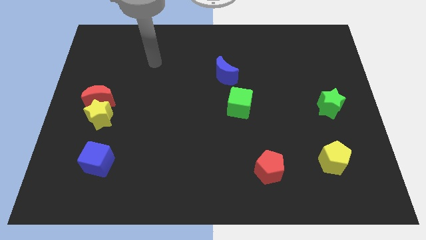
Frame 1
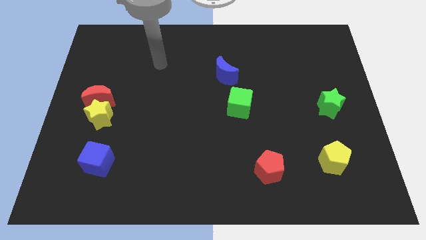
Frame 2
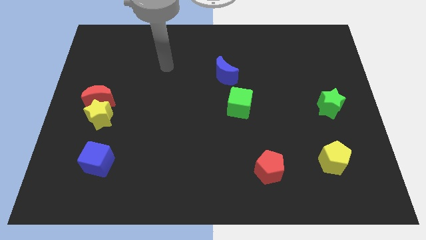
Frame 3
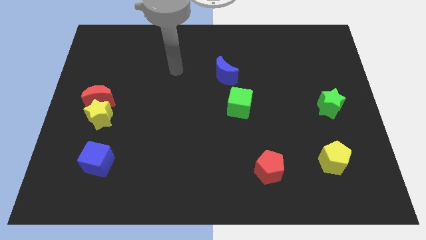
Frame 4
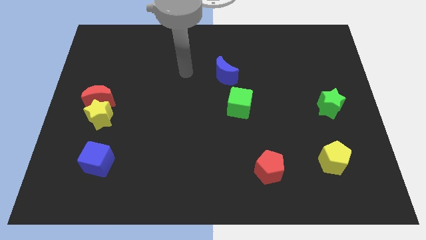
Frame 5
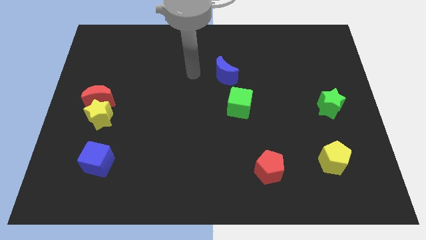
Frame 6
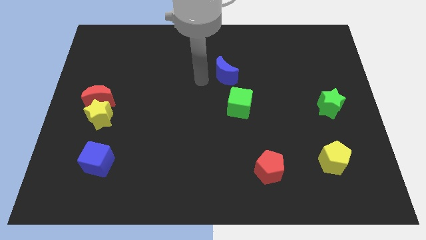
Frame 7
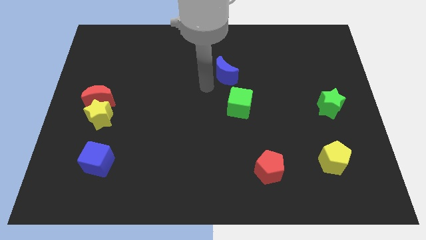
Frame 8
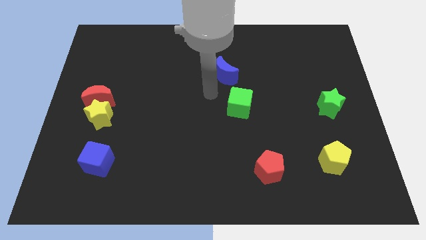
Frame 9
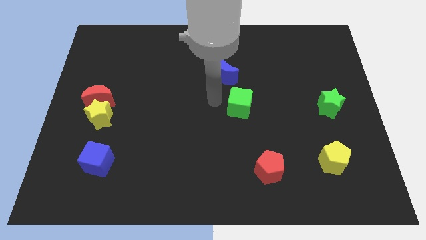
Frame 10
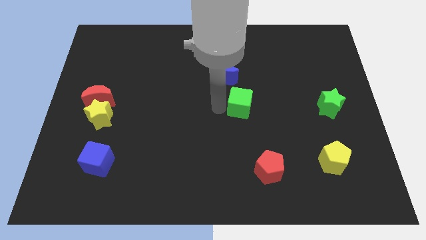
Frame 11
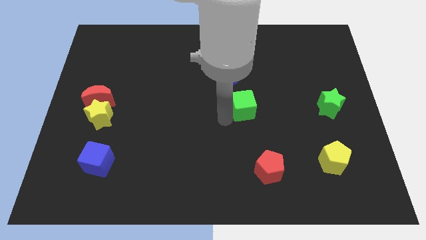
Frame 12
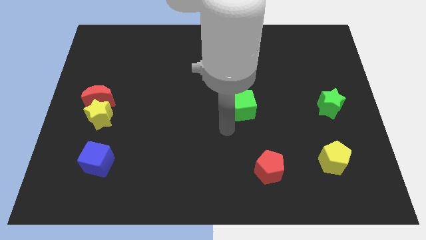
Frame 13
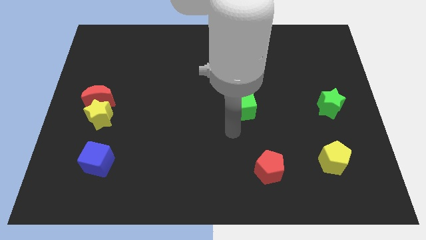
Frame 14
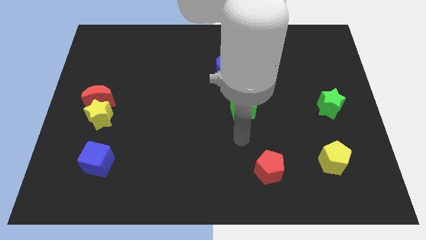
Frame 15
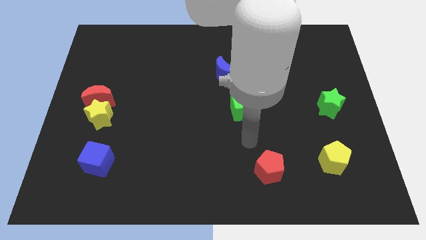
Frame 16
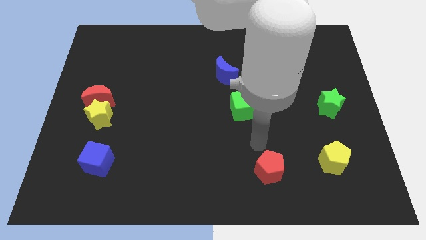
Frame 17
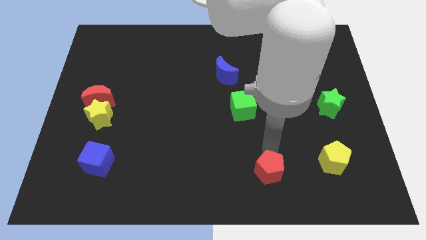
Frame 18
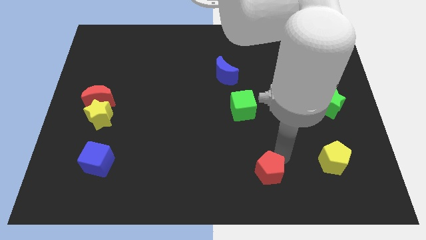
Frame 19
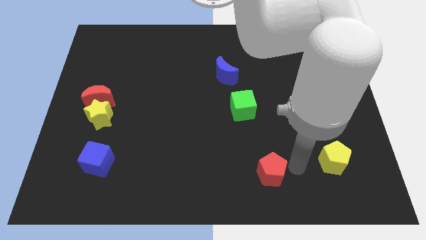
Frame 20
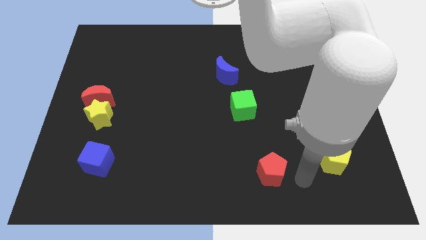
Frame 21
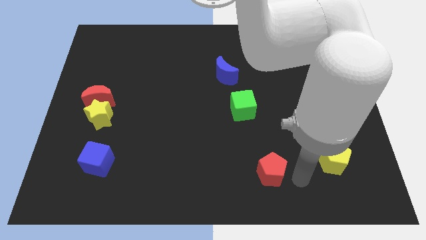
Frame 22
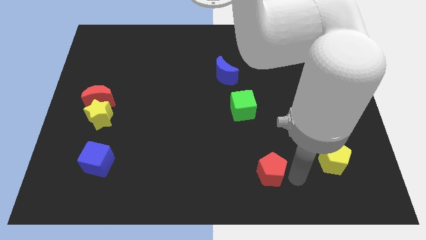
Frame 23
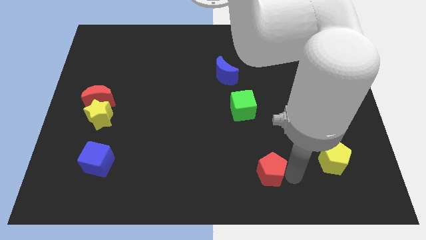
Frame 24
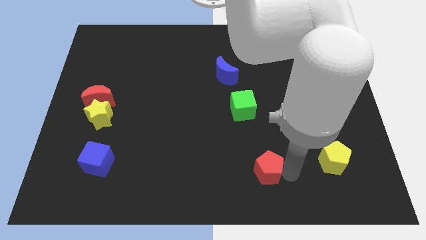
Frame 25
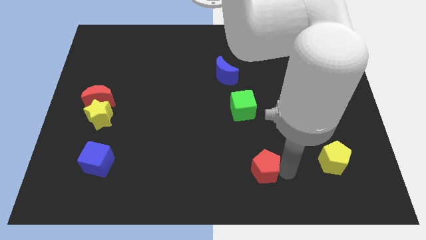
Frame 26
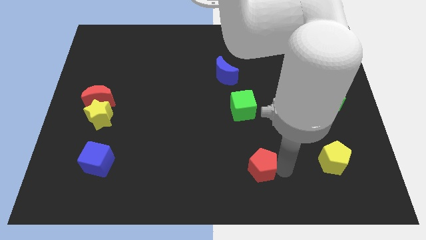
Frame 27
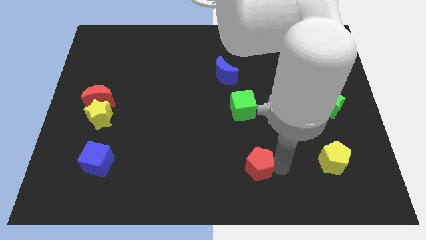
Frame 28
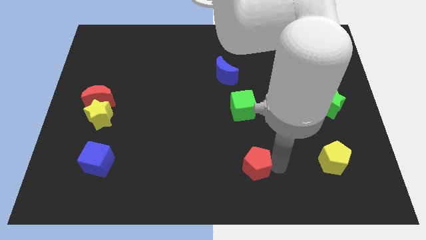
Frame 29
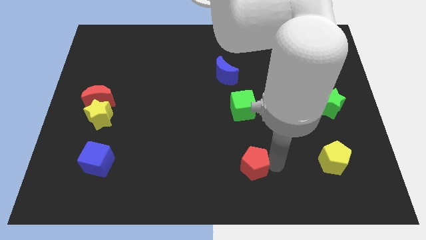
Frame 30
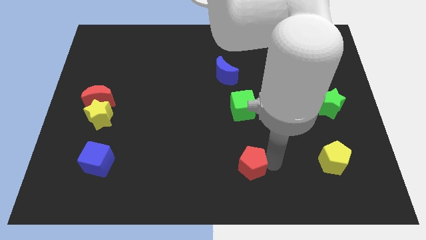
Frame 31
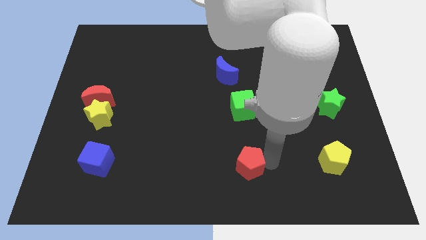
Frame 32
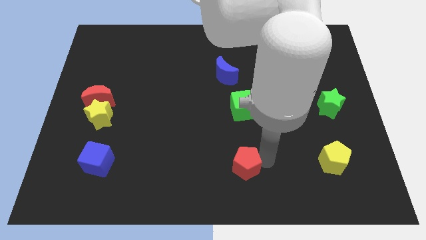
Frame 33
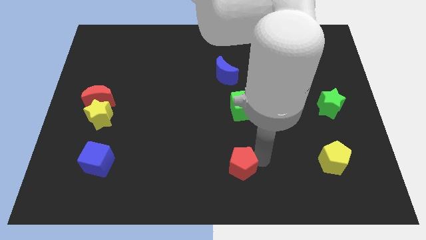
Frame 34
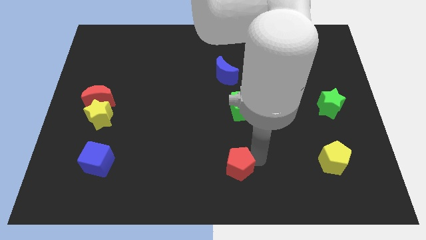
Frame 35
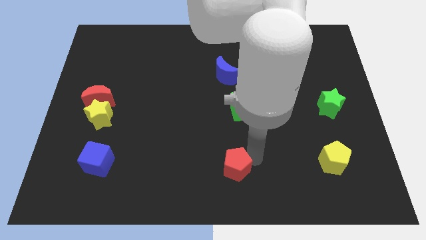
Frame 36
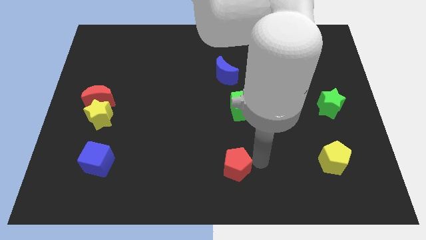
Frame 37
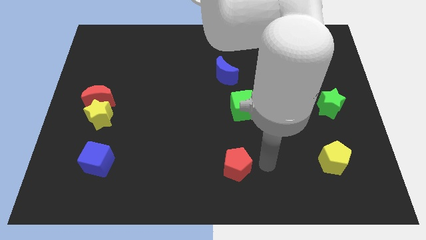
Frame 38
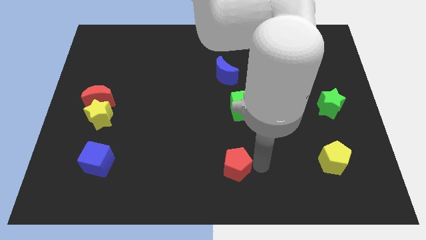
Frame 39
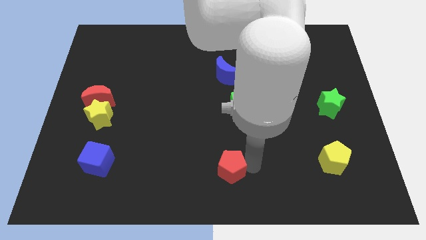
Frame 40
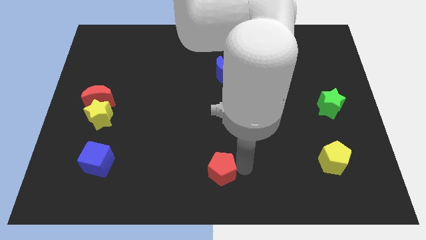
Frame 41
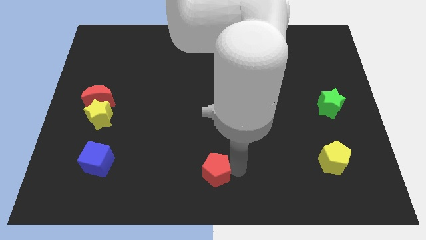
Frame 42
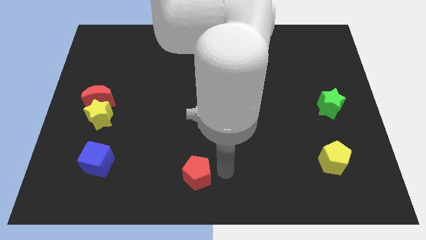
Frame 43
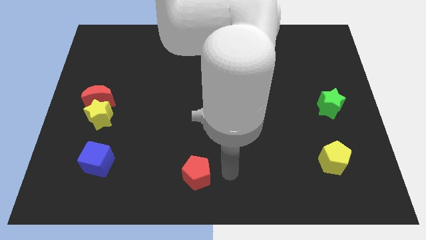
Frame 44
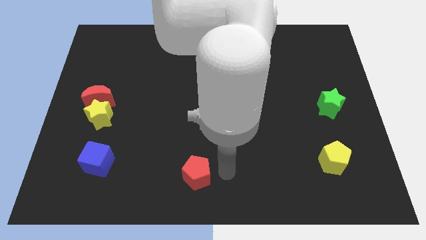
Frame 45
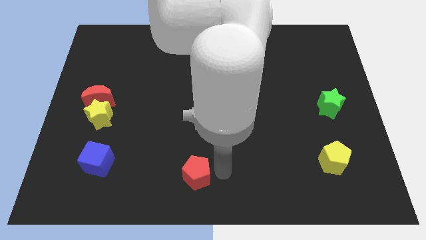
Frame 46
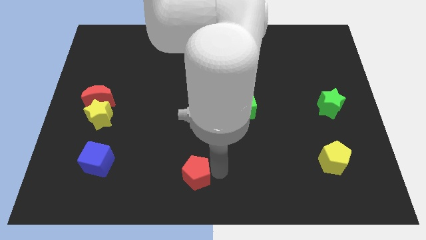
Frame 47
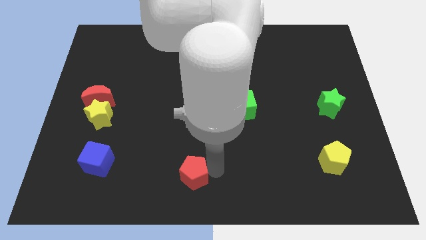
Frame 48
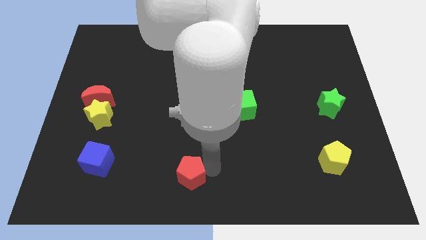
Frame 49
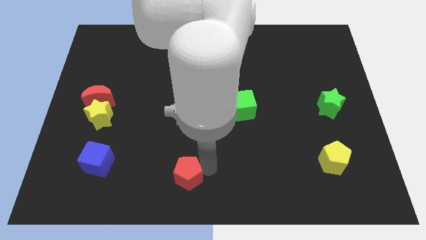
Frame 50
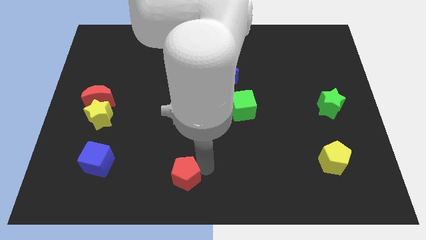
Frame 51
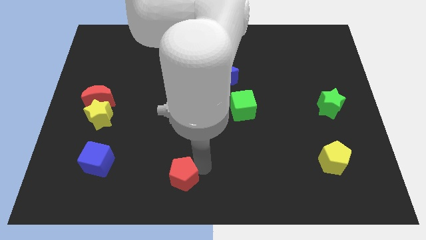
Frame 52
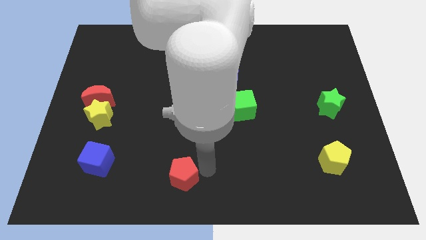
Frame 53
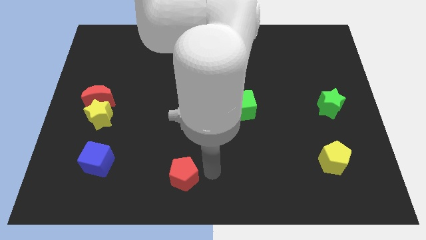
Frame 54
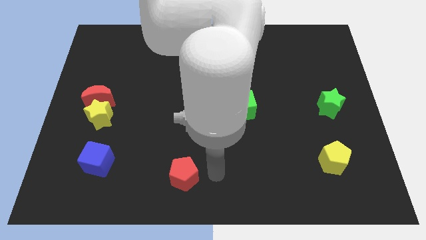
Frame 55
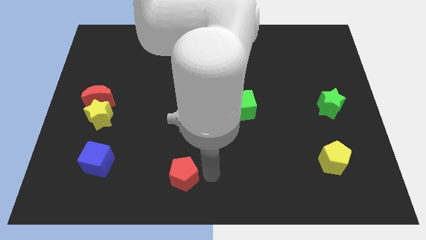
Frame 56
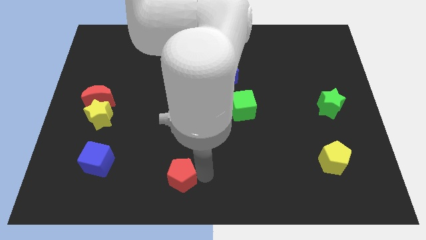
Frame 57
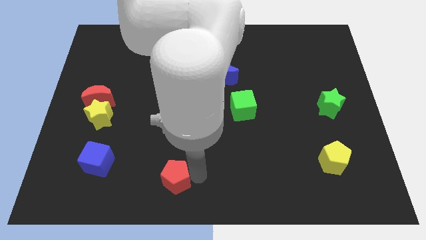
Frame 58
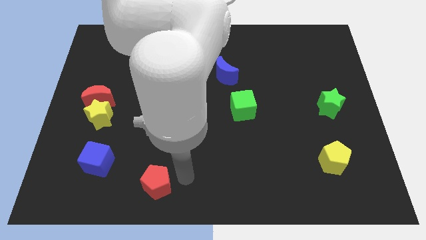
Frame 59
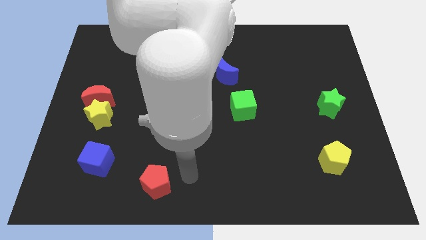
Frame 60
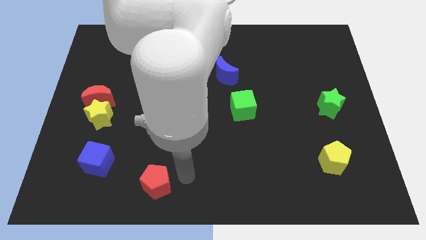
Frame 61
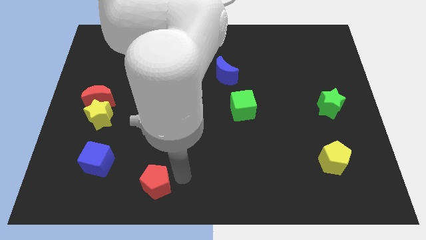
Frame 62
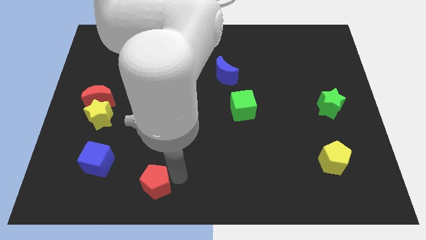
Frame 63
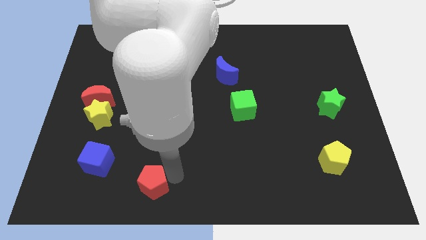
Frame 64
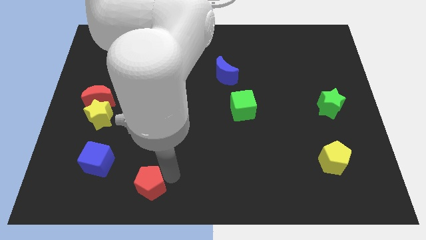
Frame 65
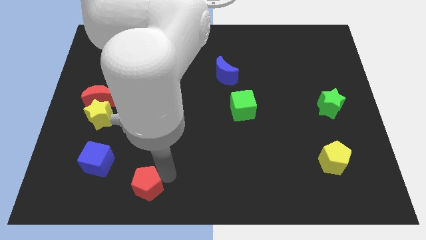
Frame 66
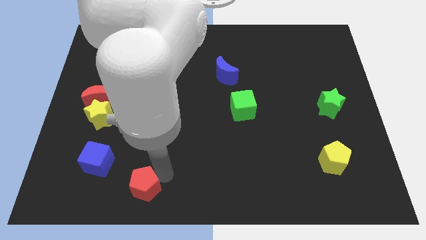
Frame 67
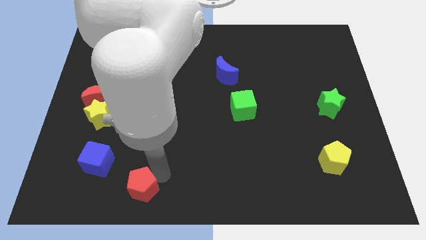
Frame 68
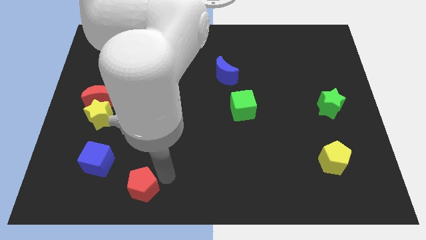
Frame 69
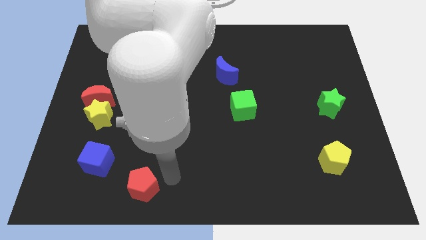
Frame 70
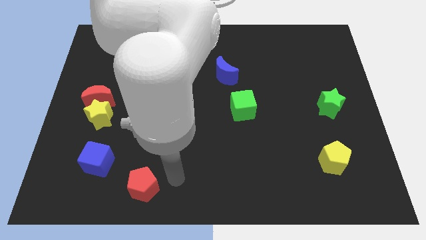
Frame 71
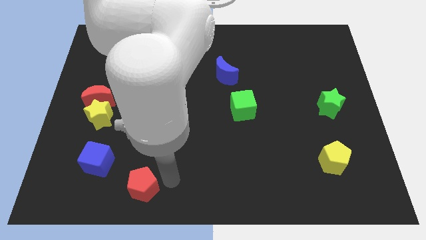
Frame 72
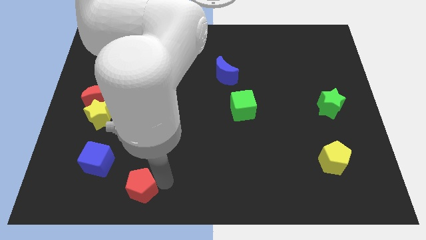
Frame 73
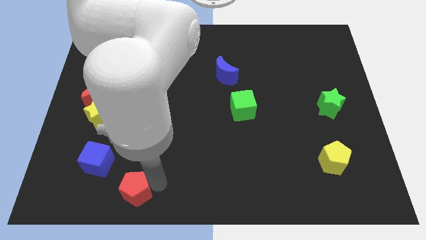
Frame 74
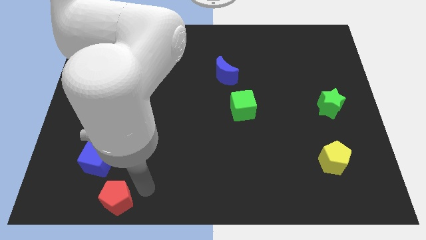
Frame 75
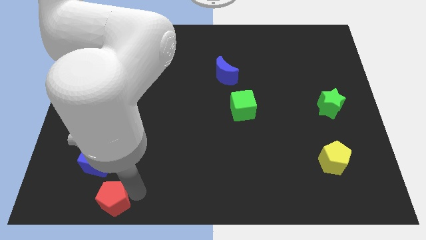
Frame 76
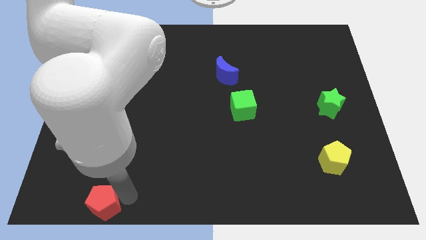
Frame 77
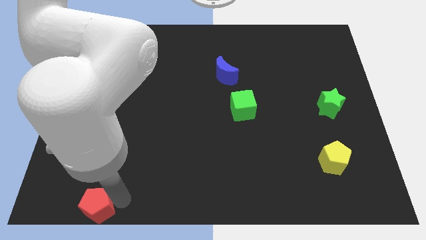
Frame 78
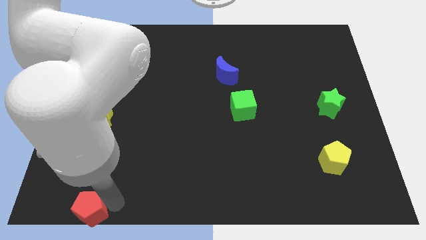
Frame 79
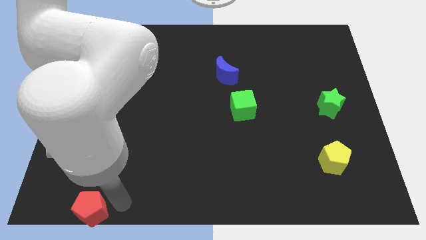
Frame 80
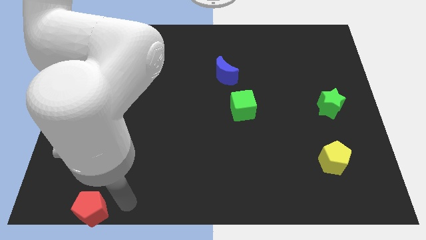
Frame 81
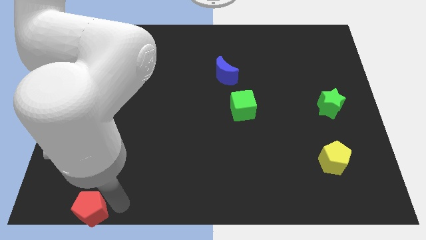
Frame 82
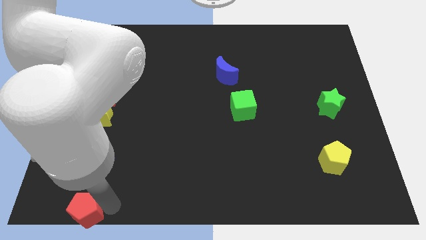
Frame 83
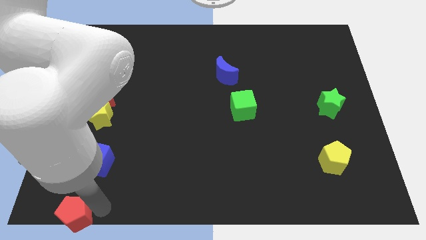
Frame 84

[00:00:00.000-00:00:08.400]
push the red pentagon to the lower left corner
